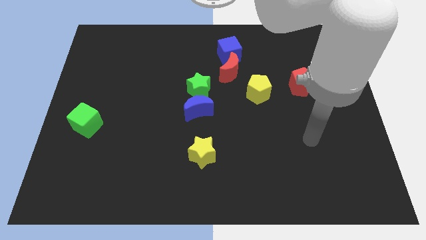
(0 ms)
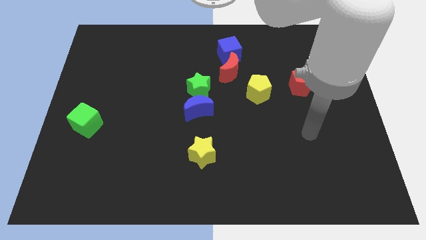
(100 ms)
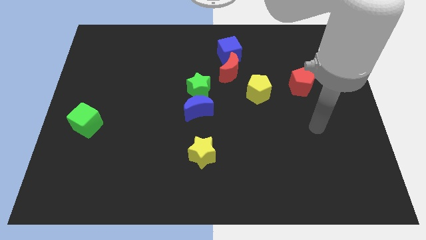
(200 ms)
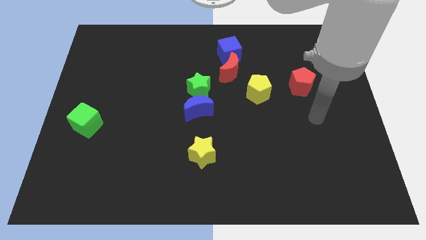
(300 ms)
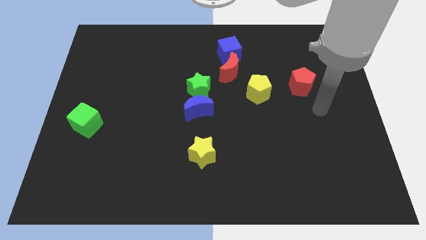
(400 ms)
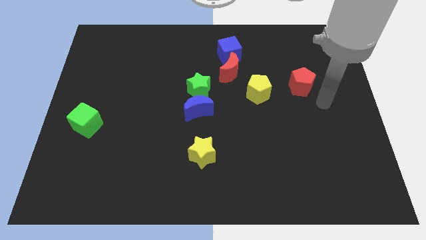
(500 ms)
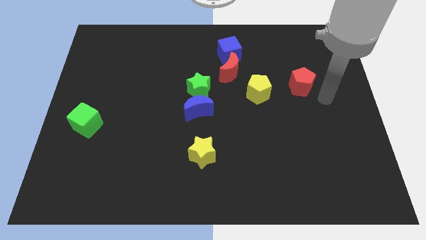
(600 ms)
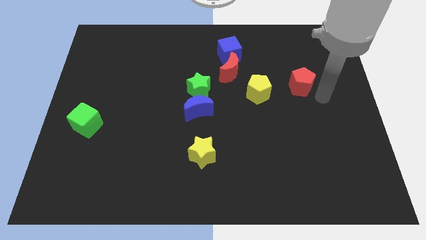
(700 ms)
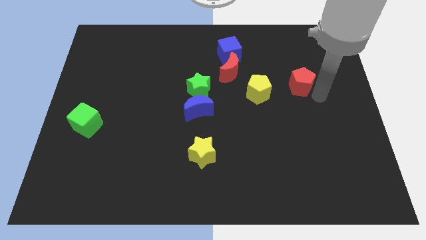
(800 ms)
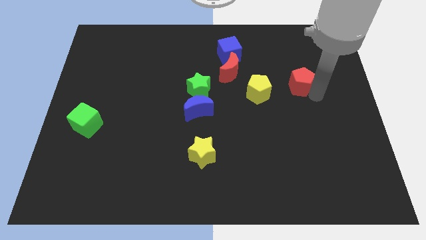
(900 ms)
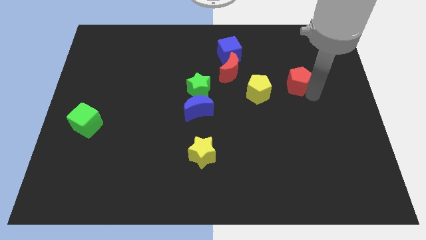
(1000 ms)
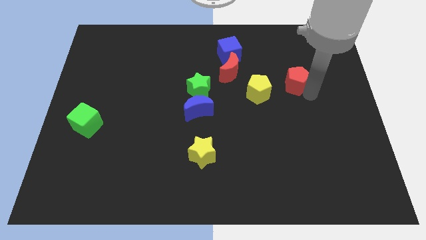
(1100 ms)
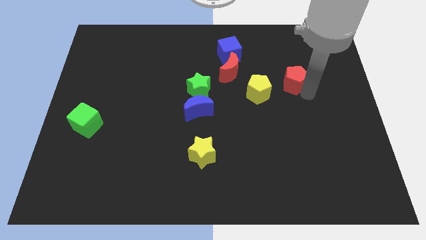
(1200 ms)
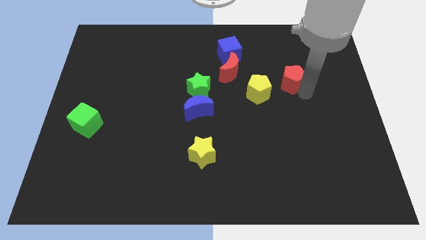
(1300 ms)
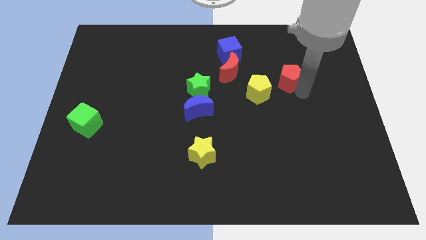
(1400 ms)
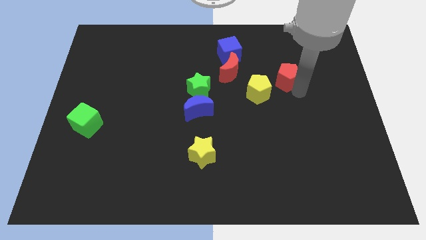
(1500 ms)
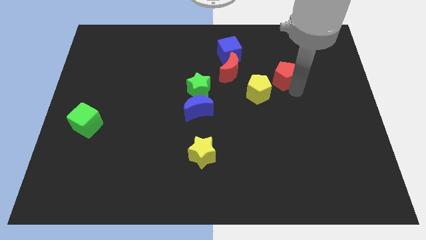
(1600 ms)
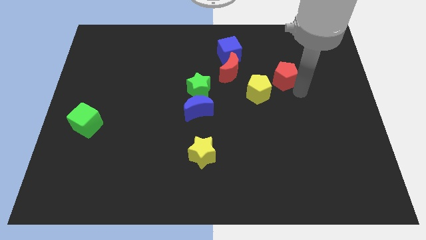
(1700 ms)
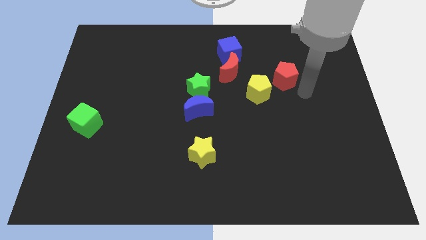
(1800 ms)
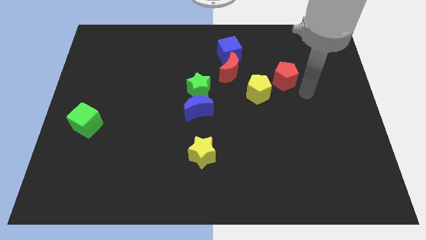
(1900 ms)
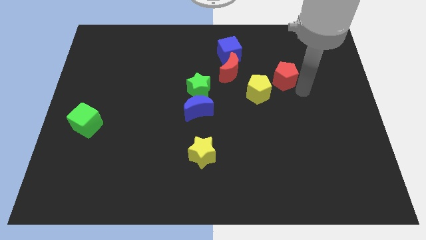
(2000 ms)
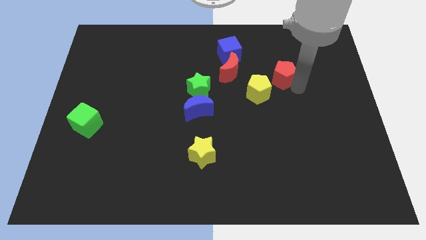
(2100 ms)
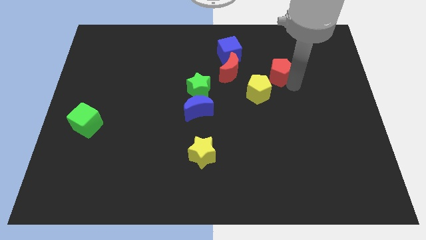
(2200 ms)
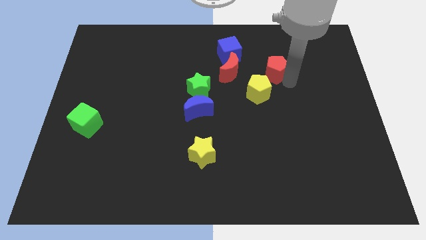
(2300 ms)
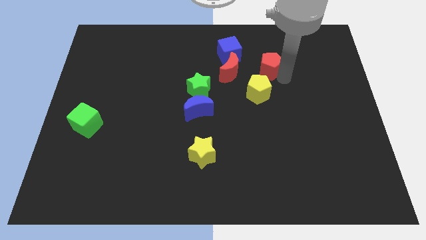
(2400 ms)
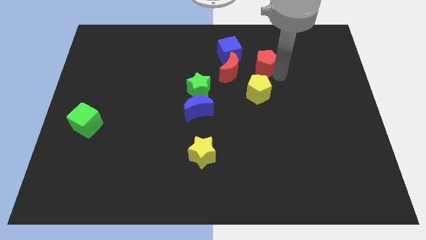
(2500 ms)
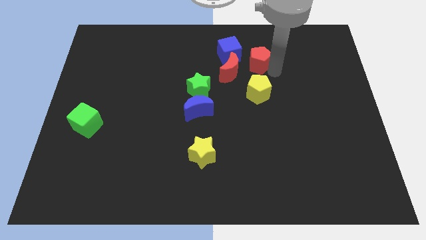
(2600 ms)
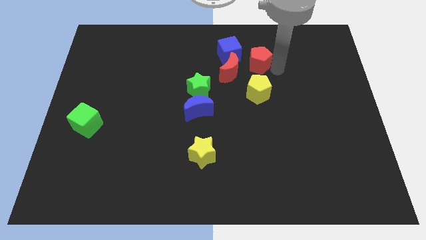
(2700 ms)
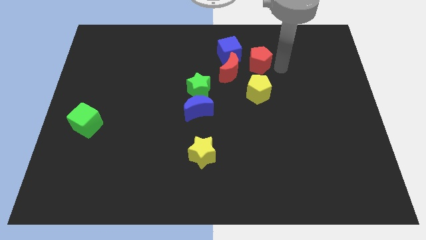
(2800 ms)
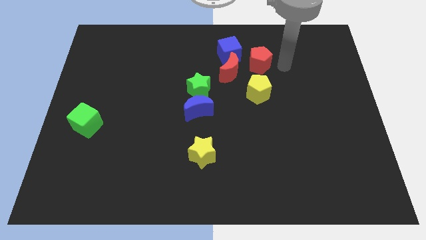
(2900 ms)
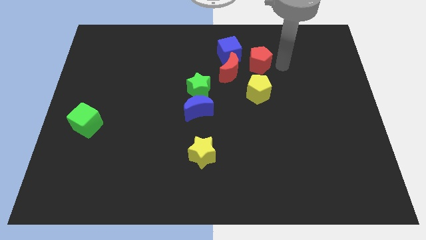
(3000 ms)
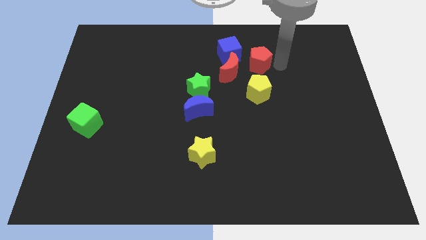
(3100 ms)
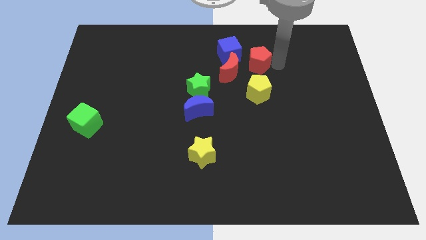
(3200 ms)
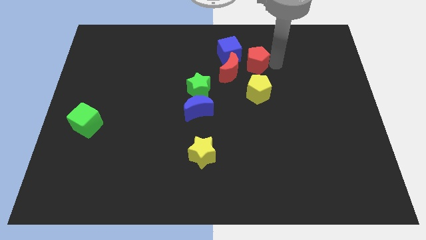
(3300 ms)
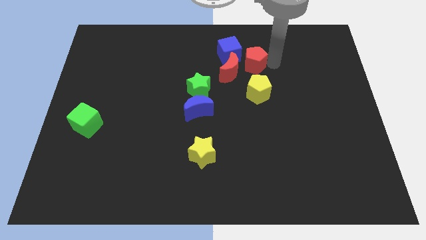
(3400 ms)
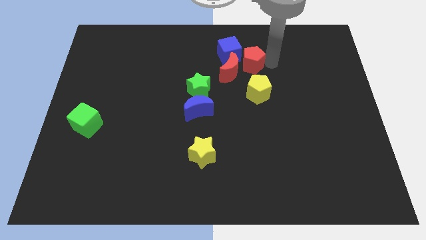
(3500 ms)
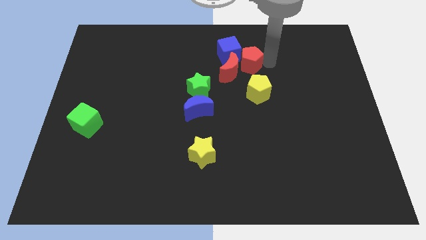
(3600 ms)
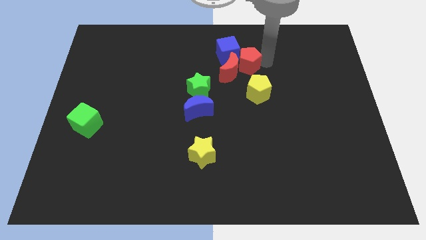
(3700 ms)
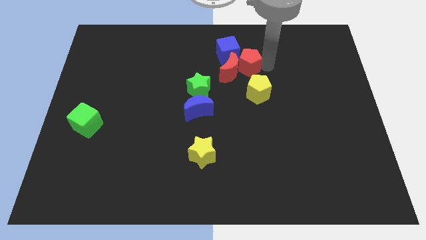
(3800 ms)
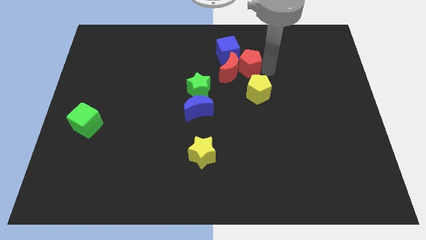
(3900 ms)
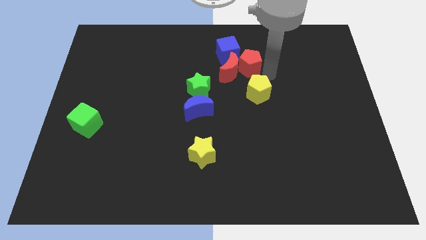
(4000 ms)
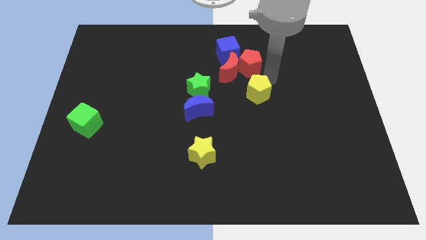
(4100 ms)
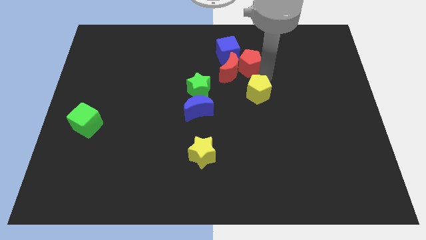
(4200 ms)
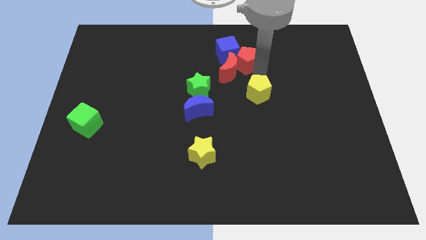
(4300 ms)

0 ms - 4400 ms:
put the red pentagon close to the blue cube

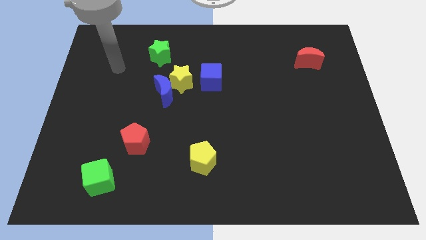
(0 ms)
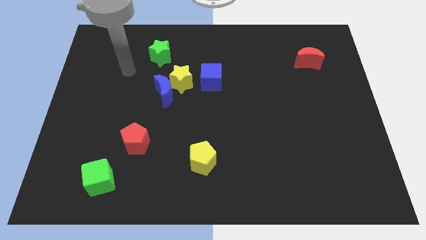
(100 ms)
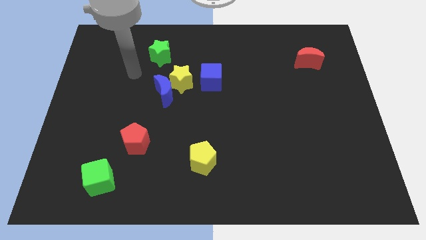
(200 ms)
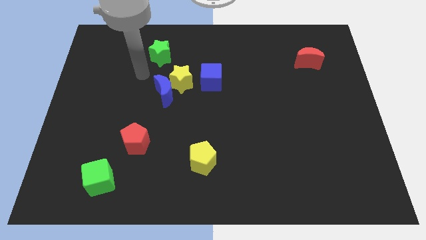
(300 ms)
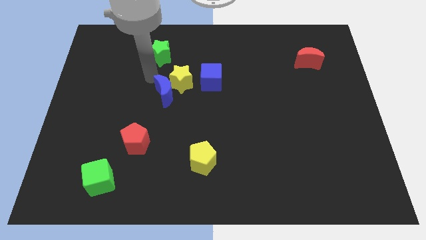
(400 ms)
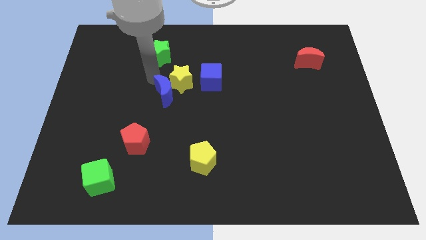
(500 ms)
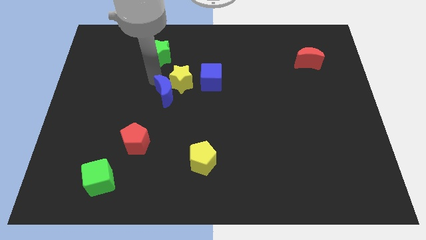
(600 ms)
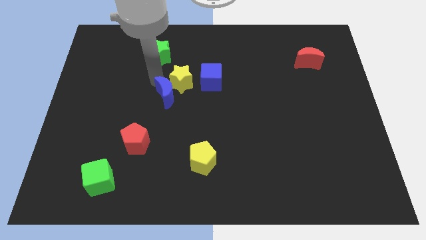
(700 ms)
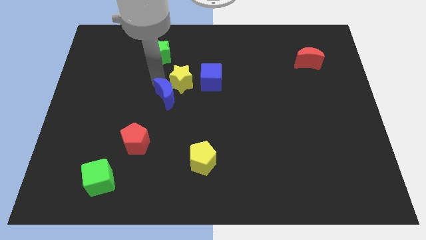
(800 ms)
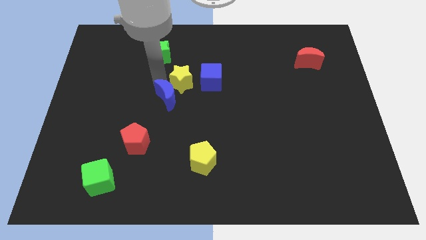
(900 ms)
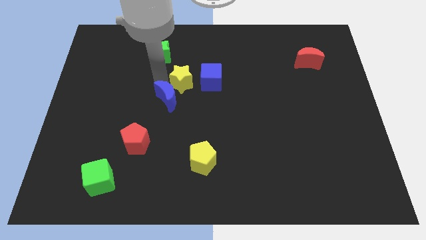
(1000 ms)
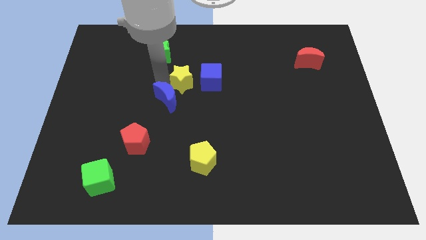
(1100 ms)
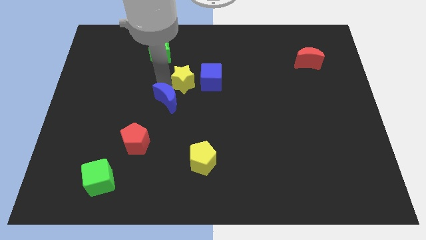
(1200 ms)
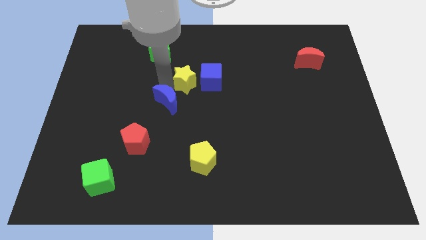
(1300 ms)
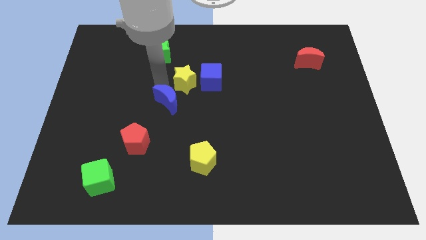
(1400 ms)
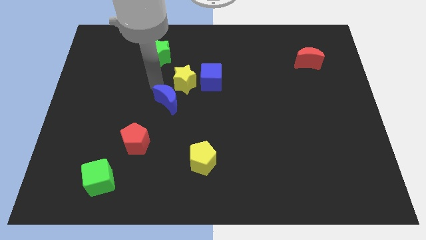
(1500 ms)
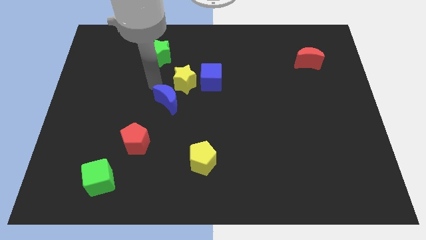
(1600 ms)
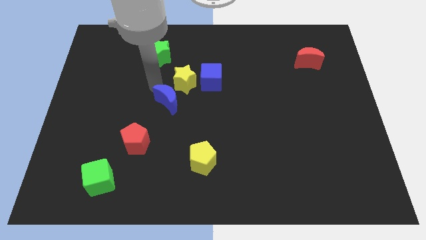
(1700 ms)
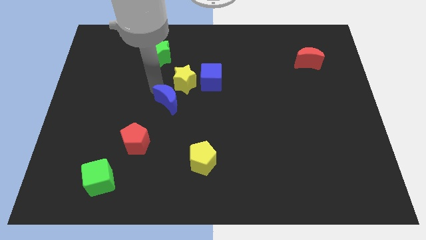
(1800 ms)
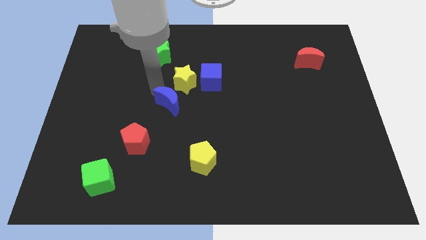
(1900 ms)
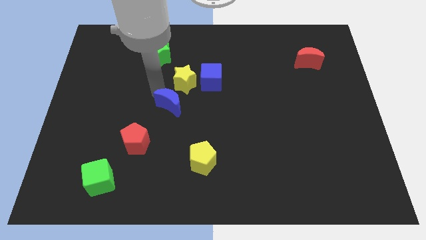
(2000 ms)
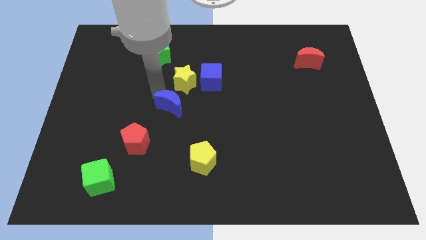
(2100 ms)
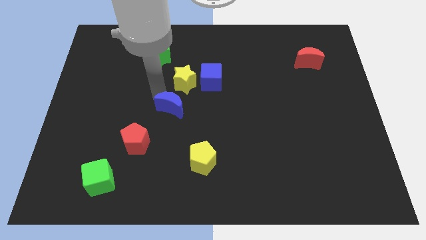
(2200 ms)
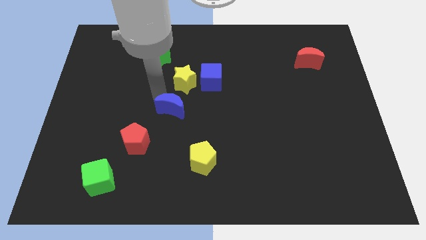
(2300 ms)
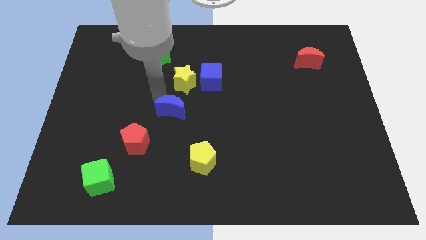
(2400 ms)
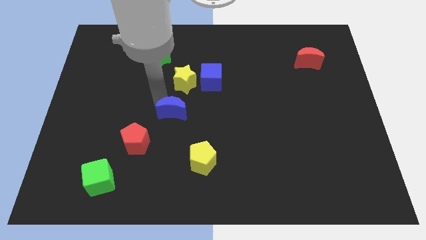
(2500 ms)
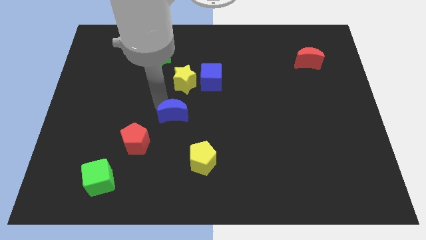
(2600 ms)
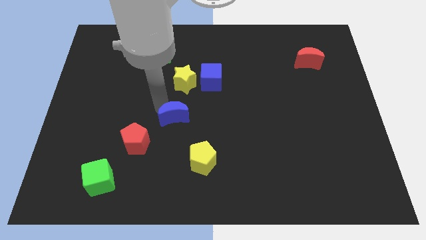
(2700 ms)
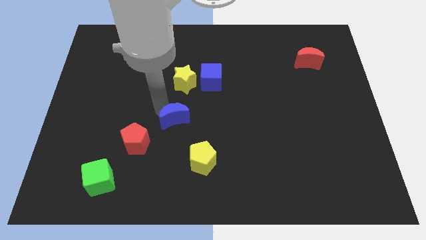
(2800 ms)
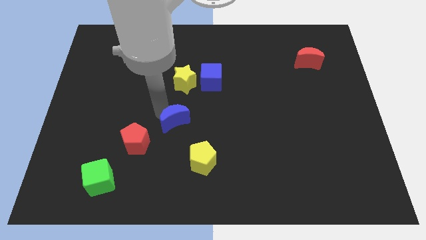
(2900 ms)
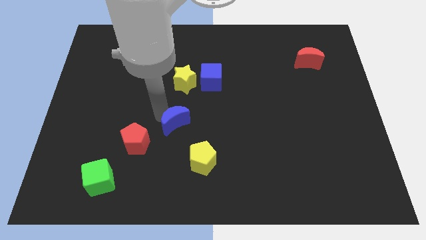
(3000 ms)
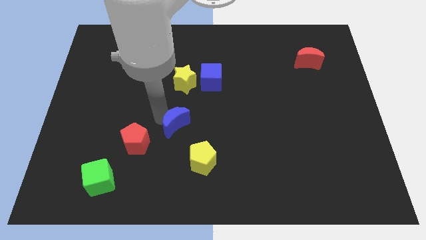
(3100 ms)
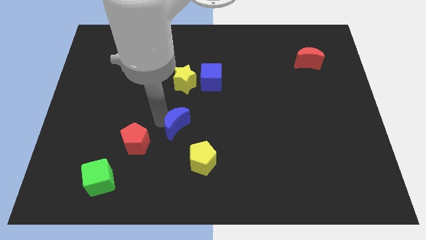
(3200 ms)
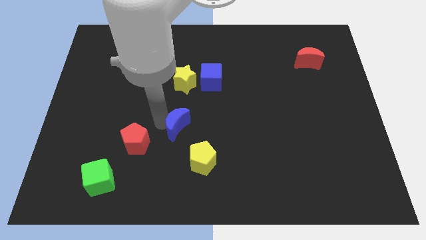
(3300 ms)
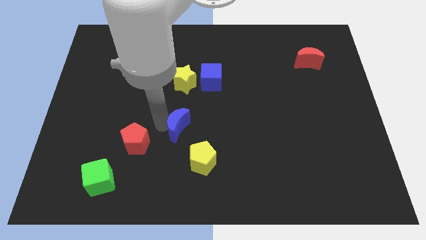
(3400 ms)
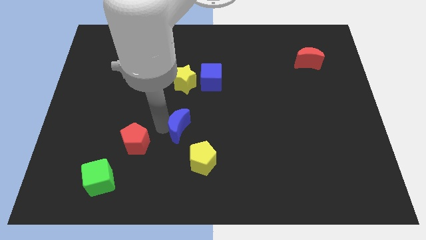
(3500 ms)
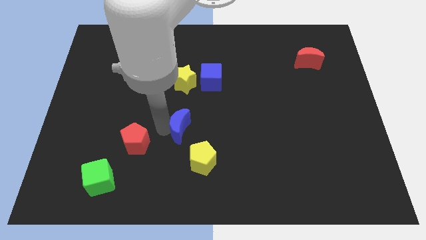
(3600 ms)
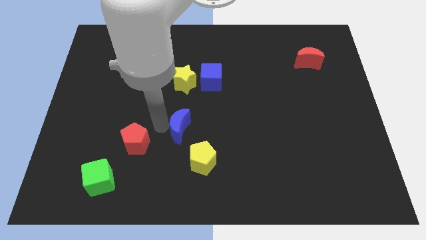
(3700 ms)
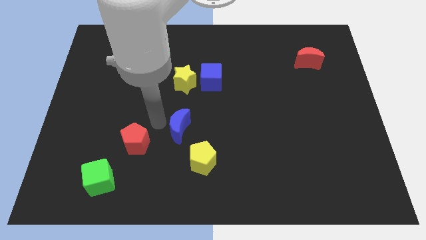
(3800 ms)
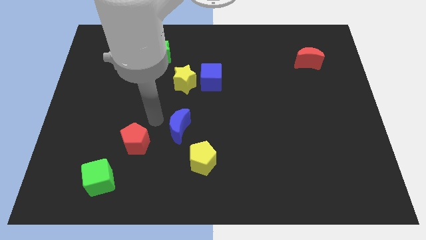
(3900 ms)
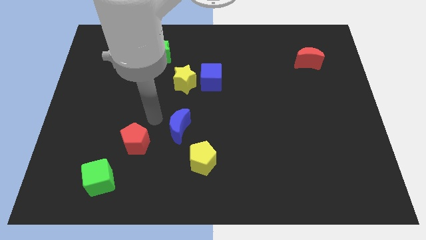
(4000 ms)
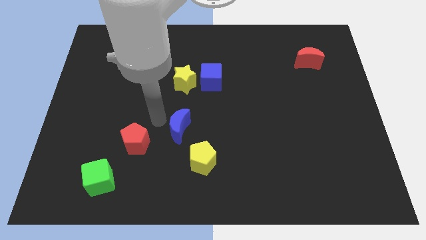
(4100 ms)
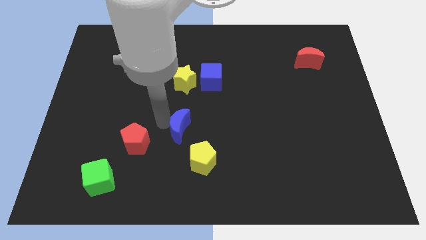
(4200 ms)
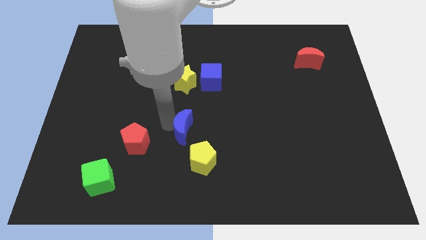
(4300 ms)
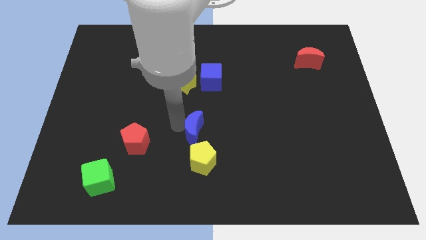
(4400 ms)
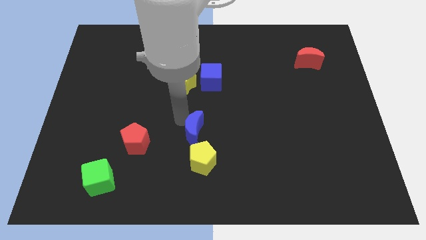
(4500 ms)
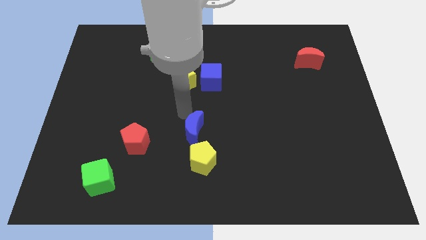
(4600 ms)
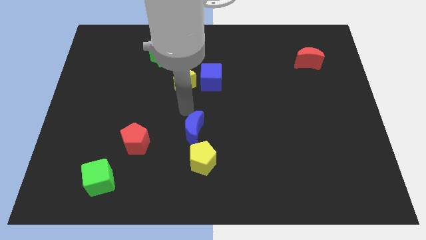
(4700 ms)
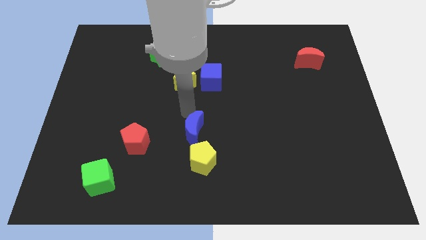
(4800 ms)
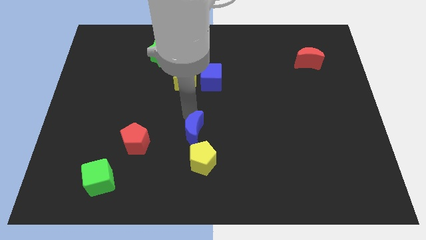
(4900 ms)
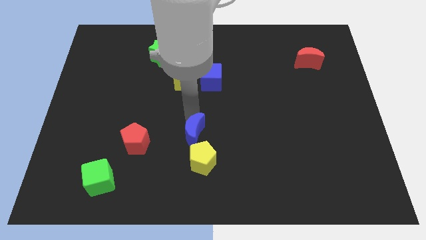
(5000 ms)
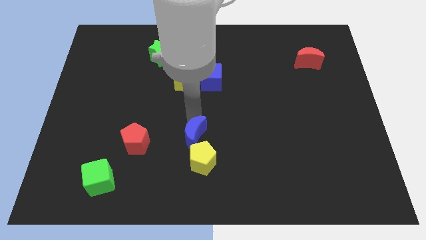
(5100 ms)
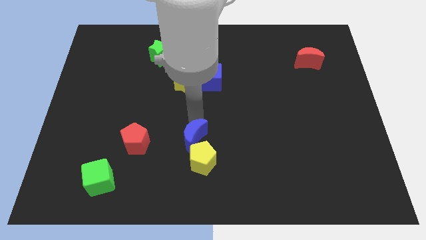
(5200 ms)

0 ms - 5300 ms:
slide the blue moon towards the yellow pentagon
